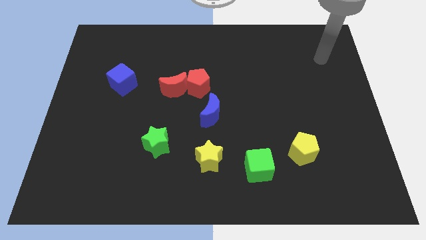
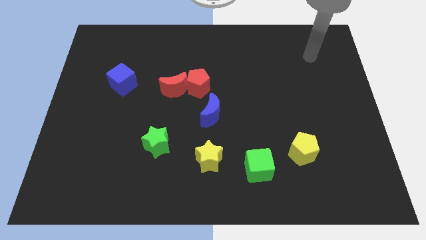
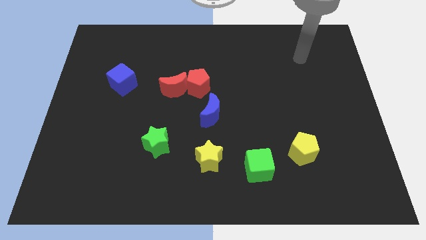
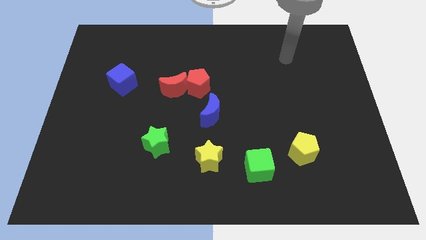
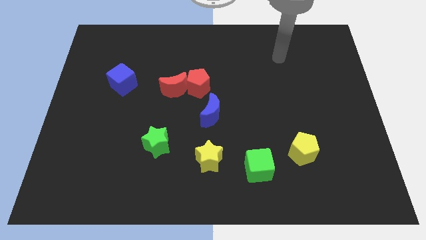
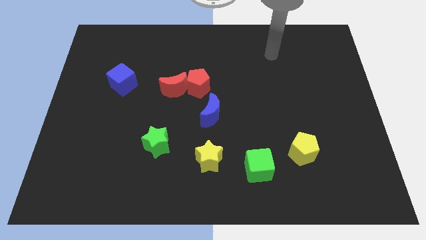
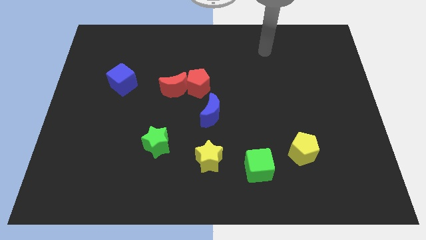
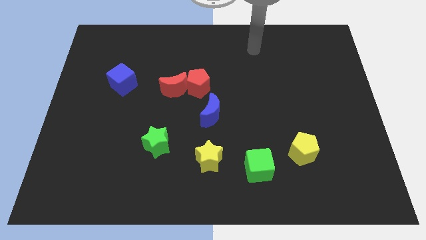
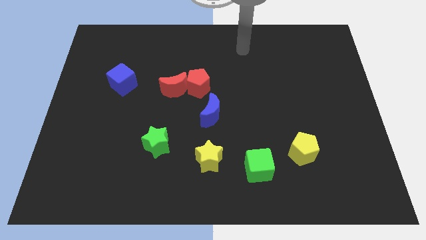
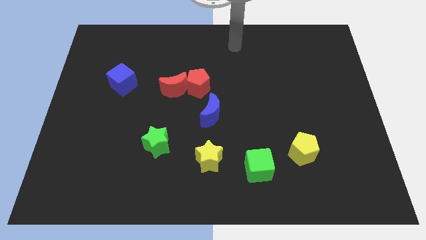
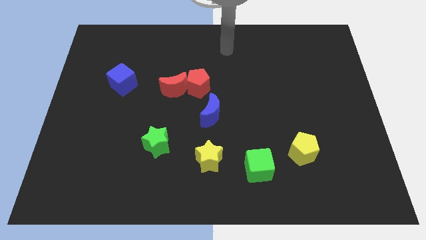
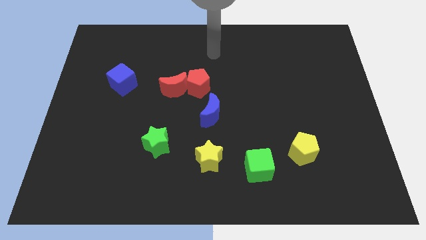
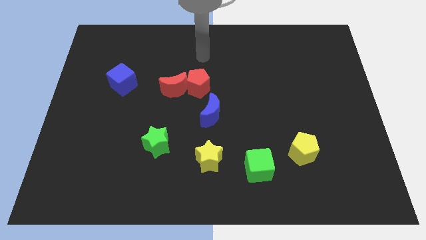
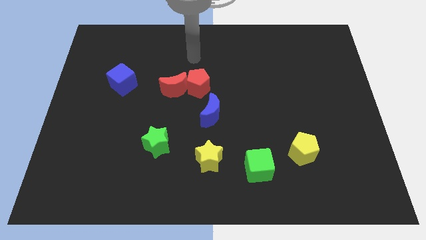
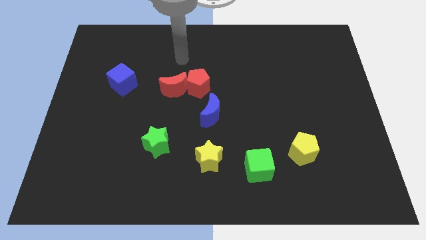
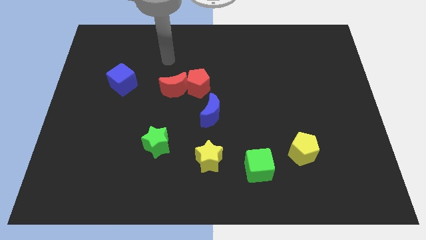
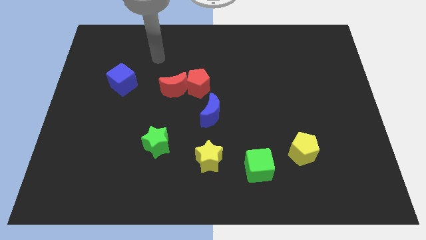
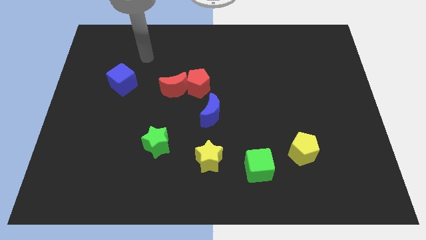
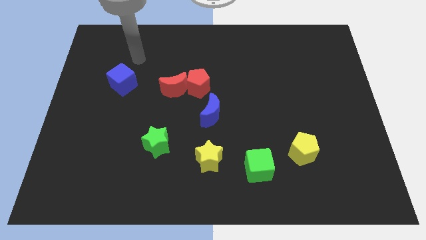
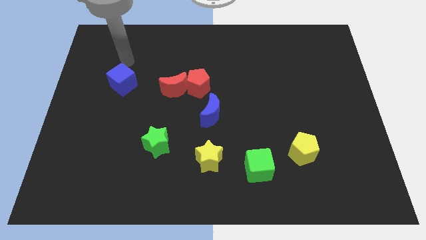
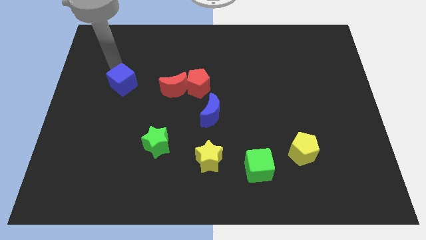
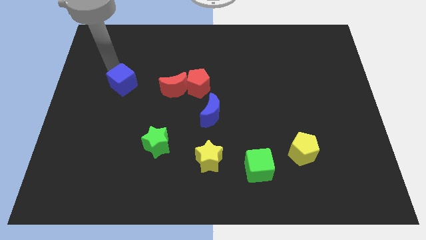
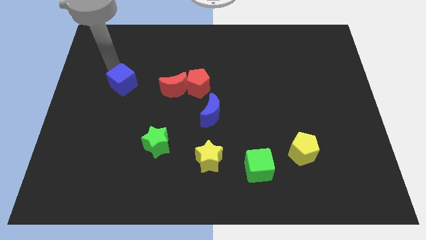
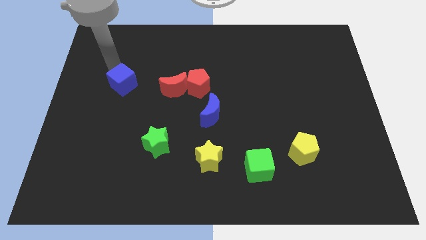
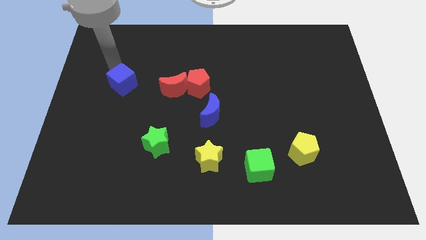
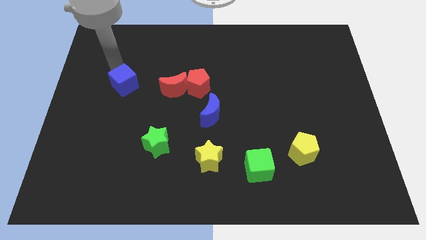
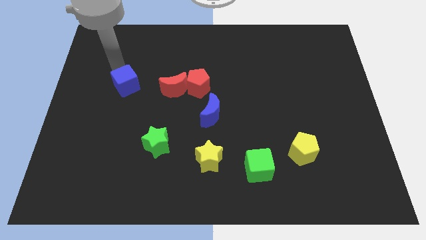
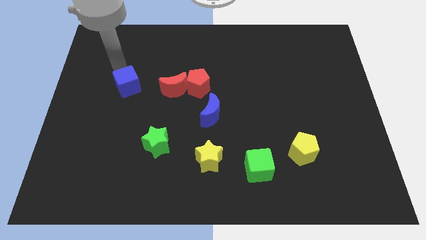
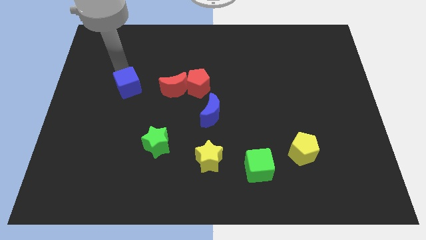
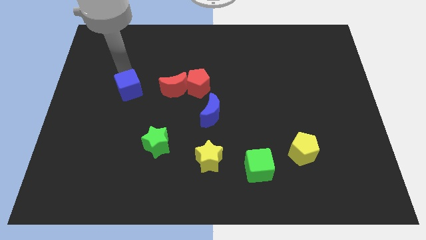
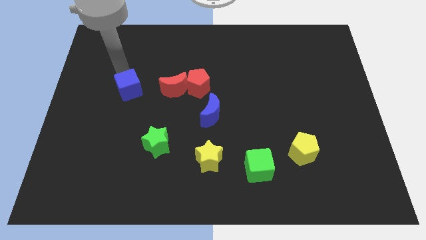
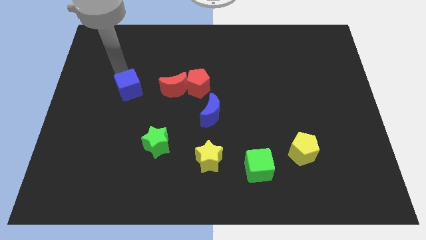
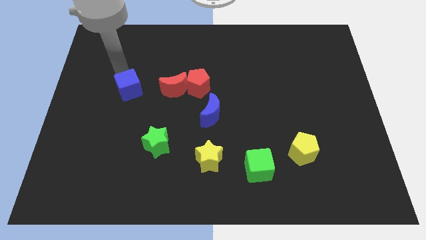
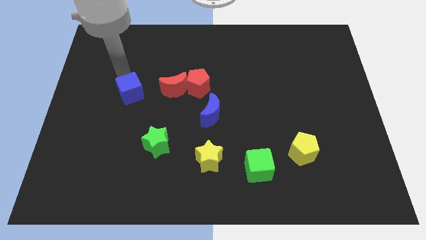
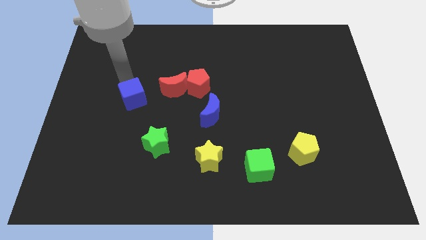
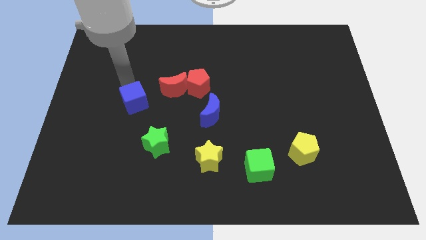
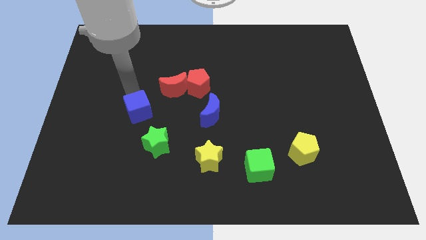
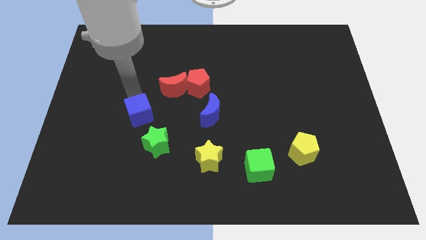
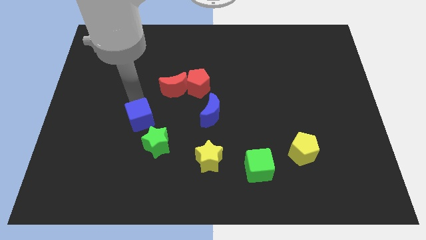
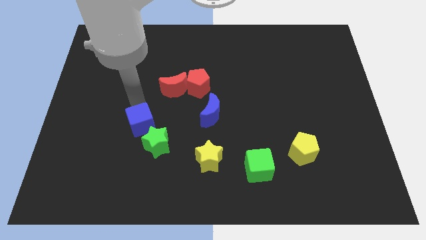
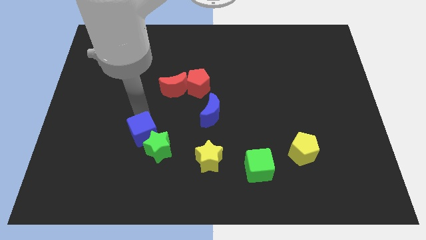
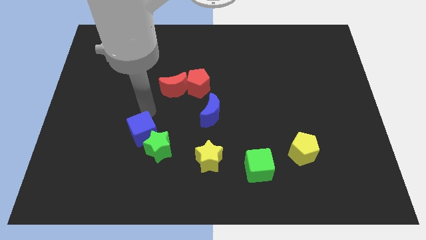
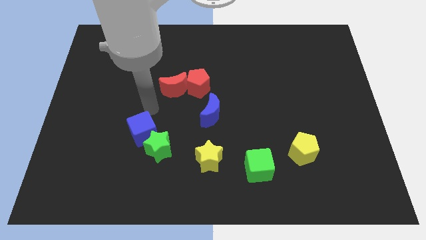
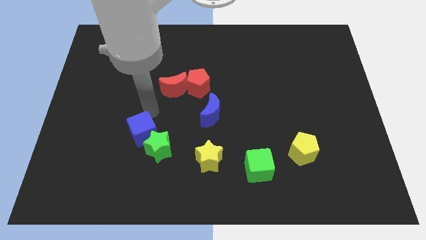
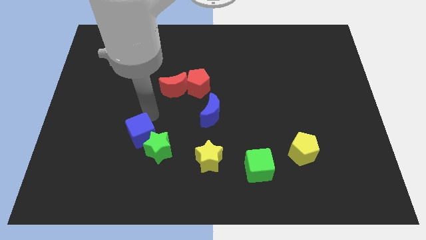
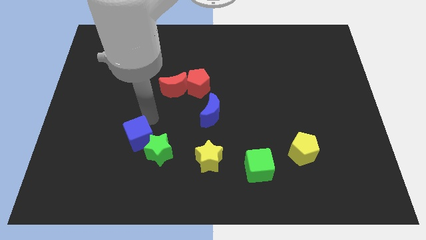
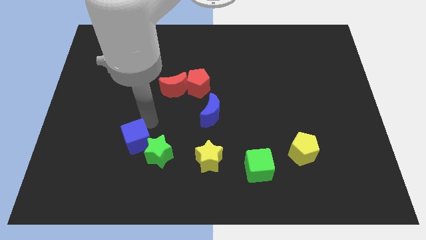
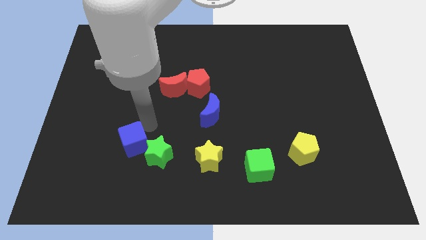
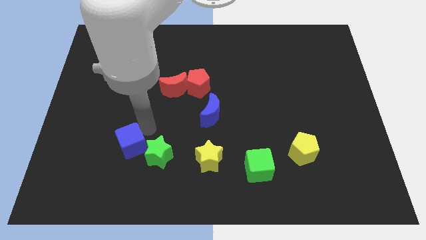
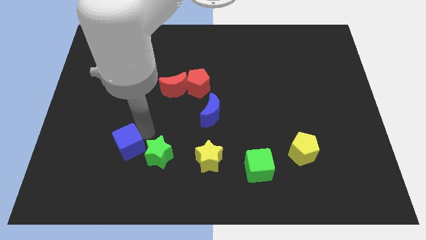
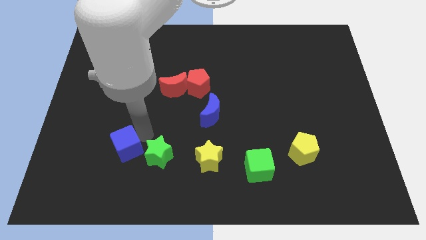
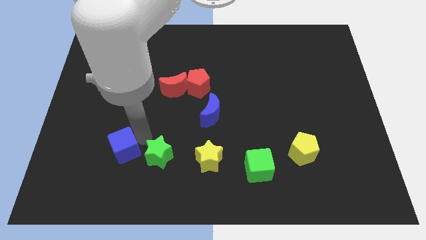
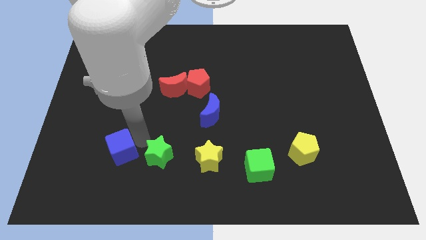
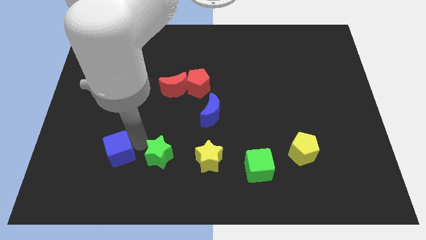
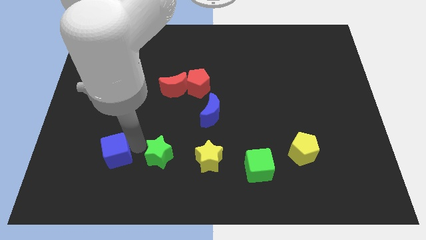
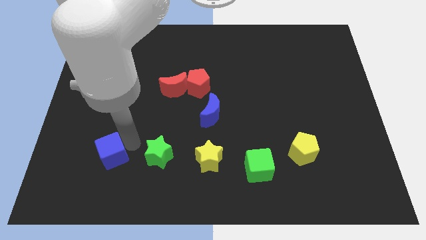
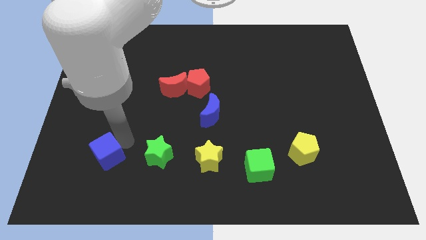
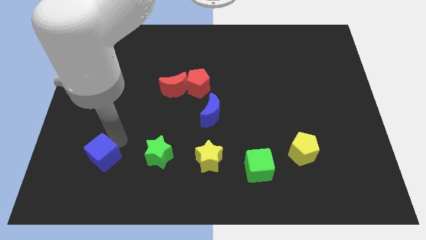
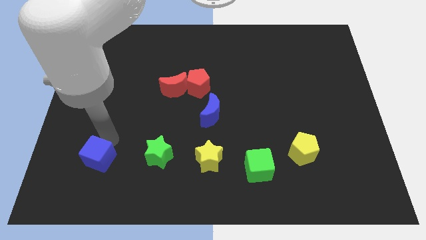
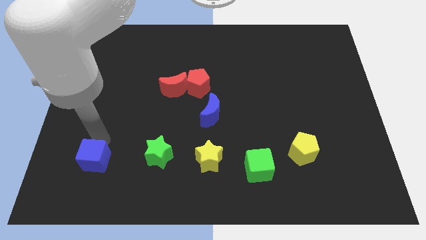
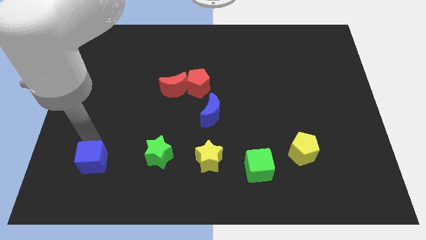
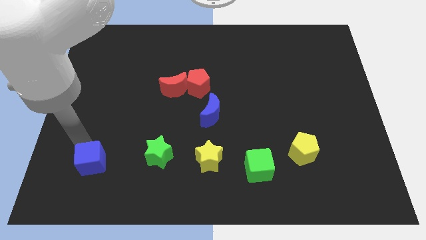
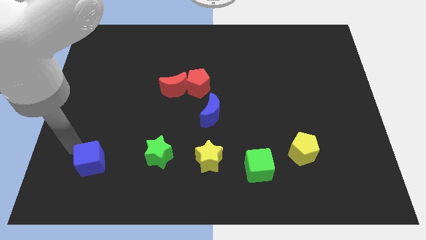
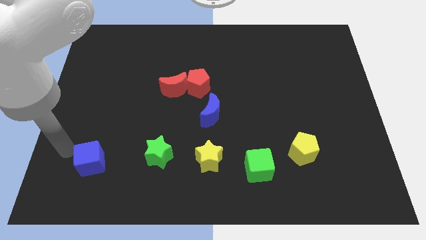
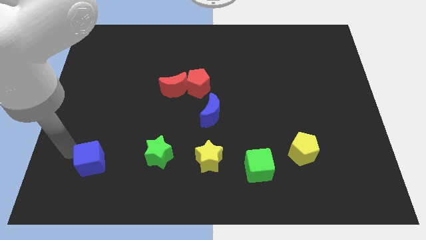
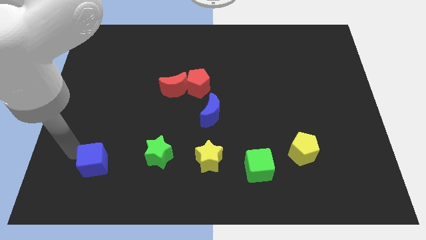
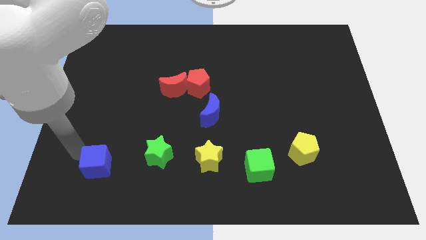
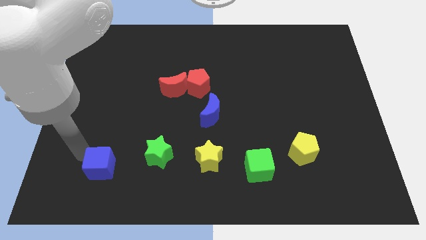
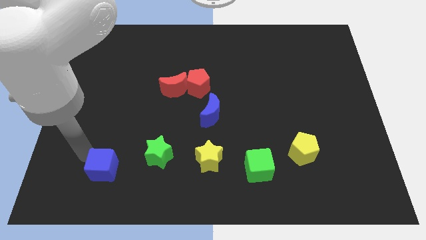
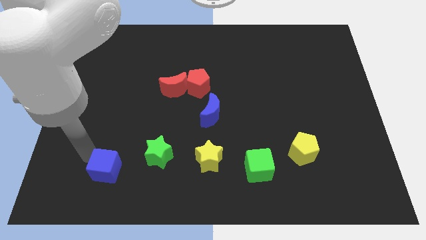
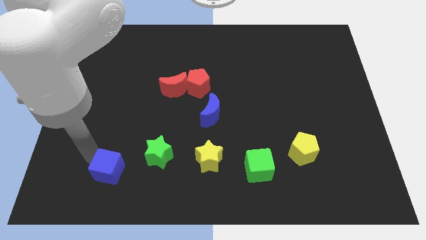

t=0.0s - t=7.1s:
move the blue cube diagonally down and to the left of the green star
